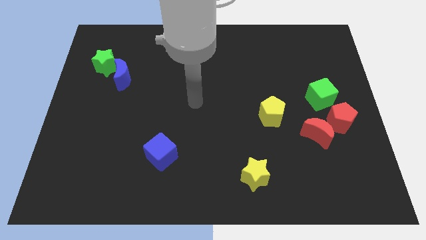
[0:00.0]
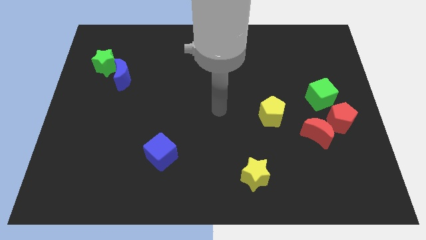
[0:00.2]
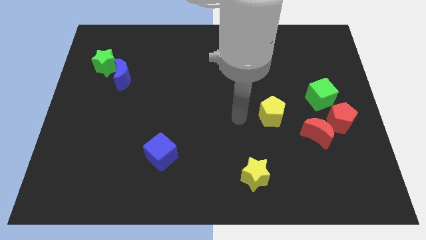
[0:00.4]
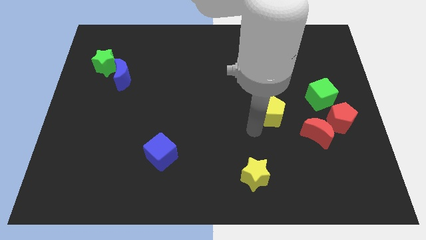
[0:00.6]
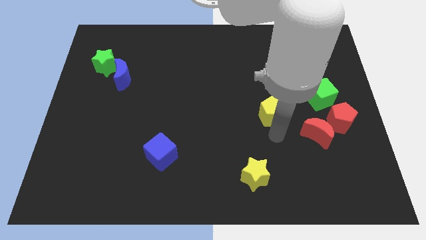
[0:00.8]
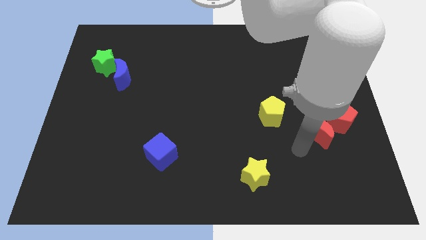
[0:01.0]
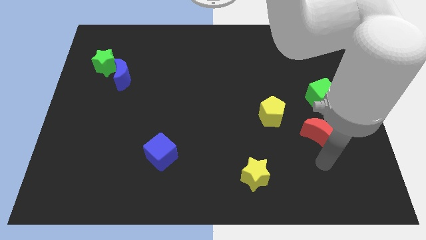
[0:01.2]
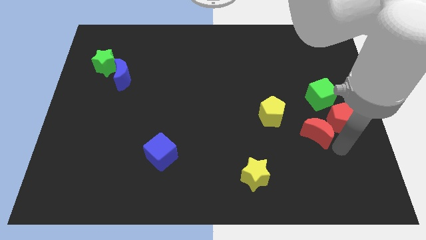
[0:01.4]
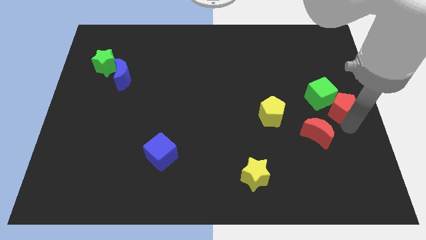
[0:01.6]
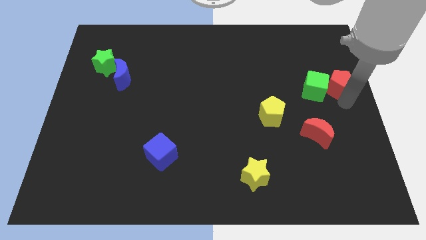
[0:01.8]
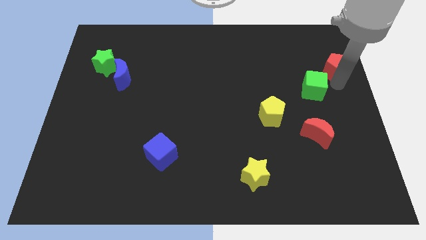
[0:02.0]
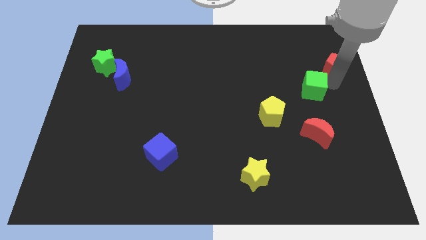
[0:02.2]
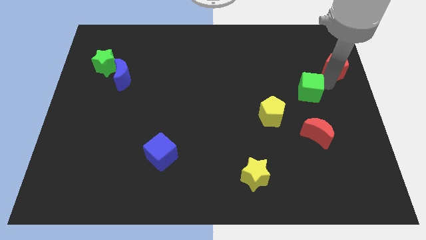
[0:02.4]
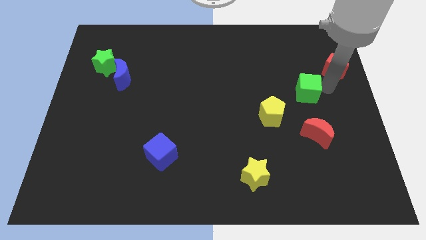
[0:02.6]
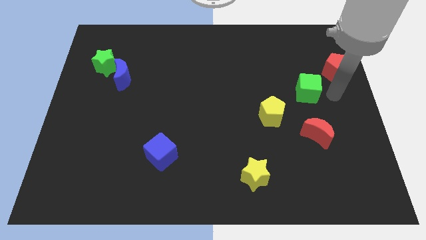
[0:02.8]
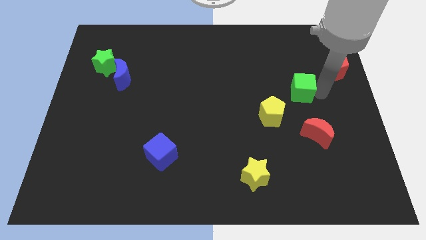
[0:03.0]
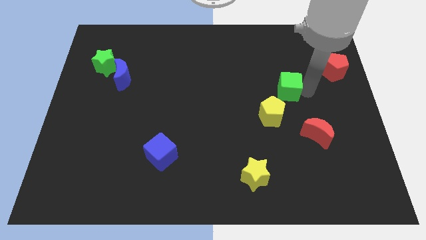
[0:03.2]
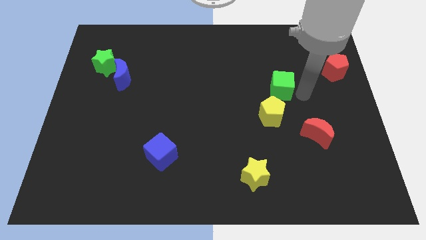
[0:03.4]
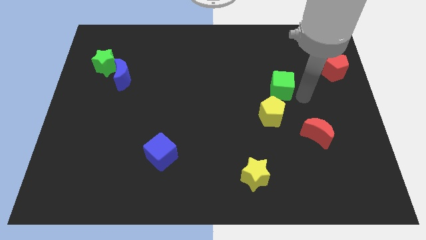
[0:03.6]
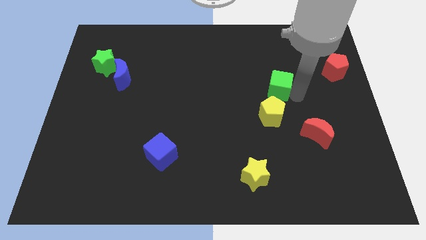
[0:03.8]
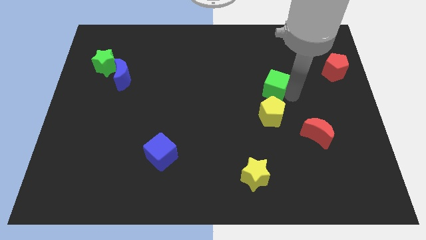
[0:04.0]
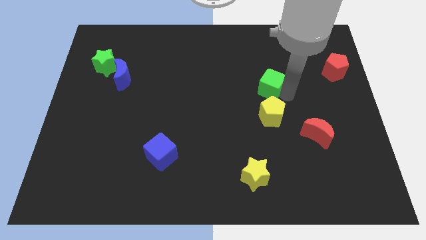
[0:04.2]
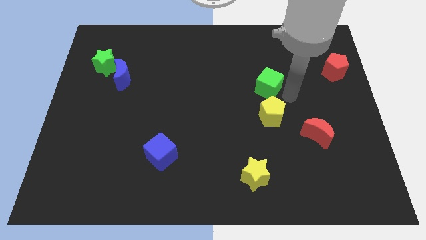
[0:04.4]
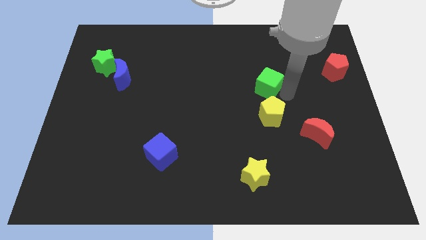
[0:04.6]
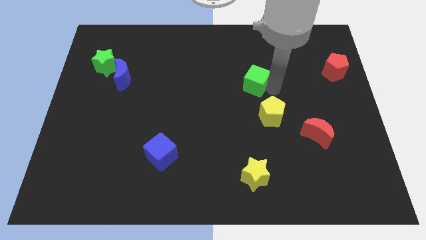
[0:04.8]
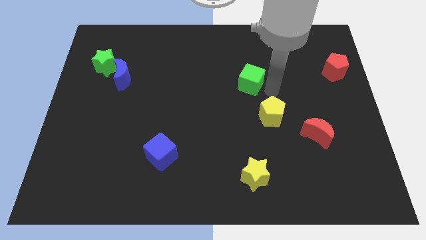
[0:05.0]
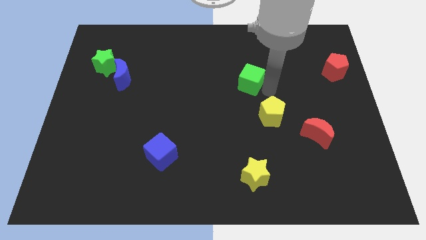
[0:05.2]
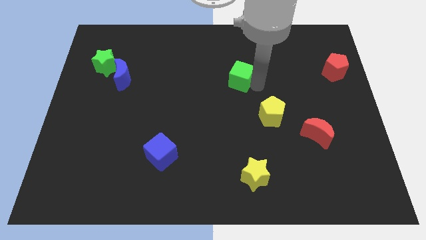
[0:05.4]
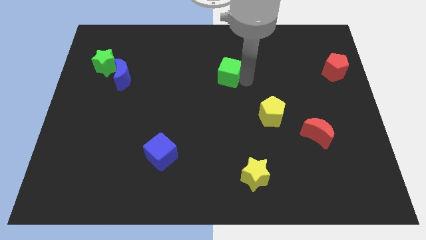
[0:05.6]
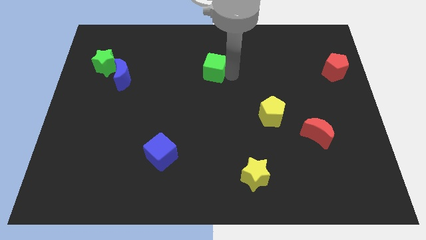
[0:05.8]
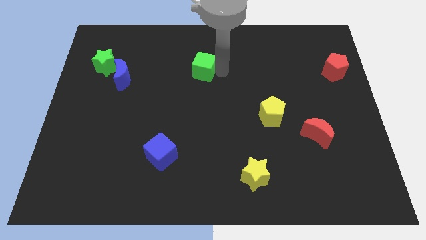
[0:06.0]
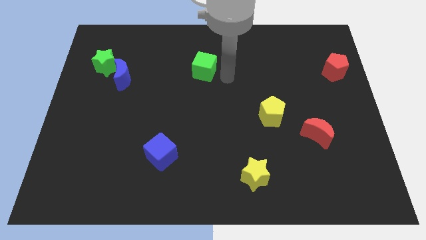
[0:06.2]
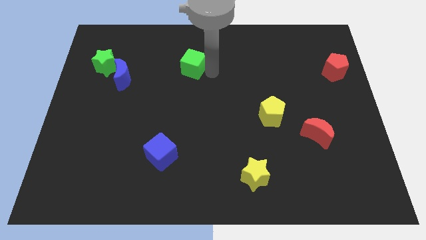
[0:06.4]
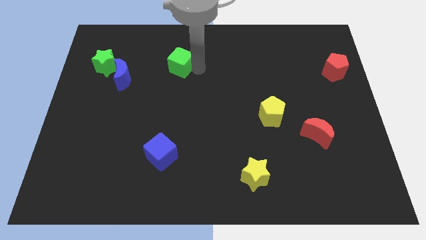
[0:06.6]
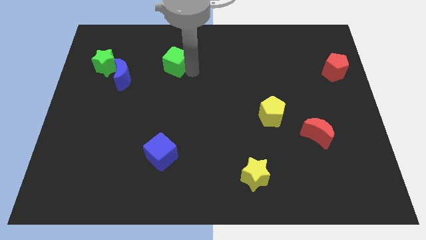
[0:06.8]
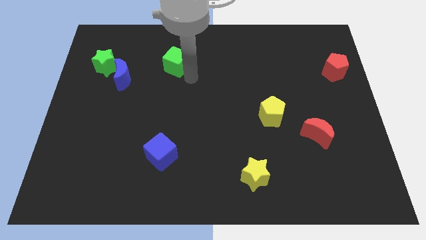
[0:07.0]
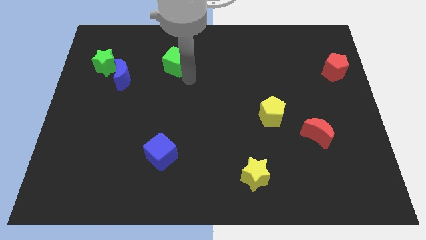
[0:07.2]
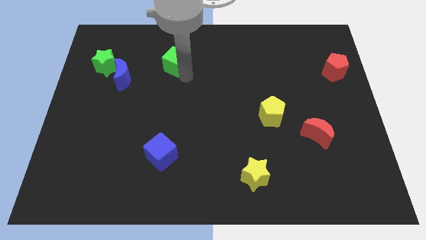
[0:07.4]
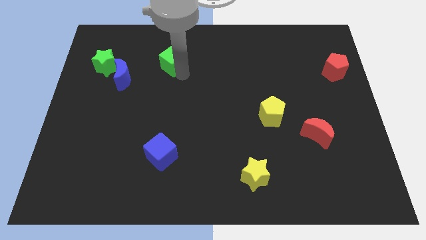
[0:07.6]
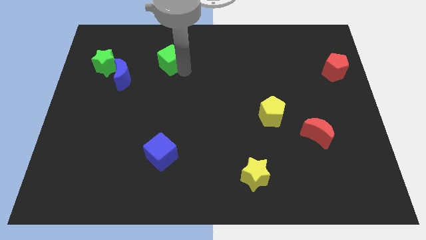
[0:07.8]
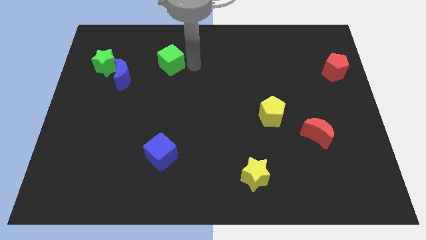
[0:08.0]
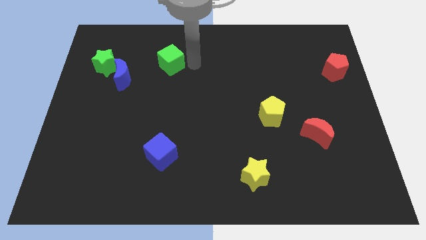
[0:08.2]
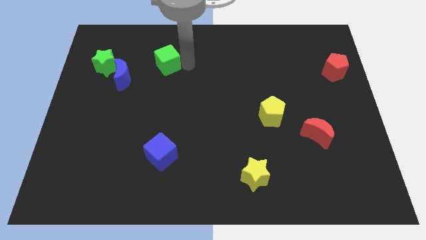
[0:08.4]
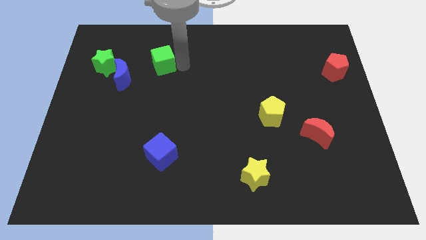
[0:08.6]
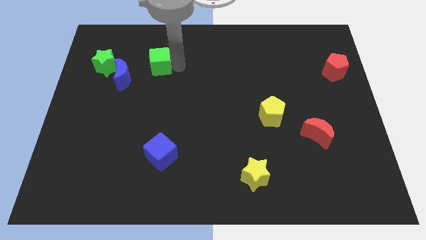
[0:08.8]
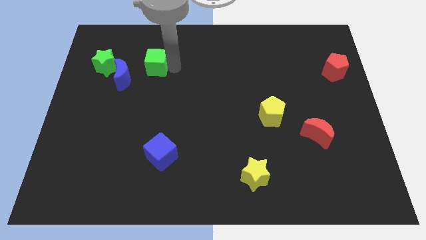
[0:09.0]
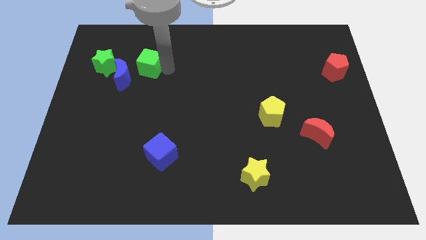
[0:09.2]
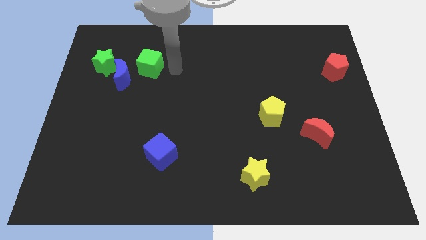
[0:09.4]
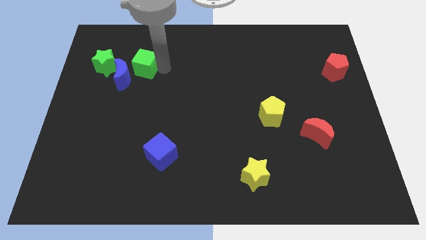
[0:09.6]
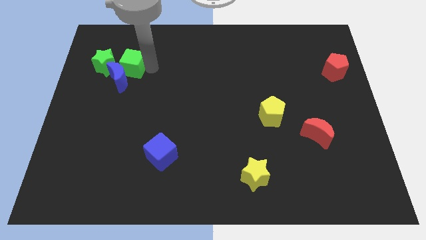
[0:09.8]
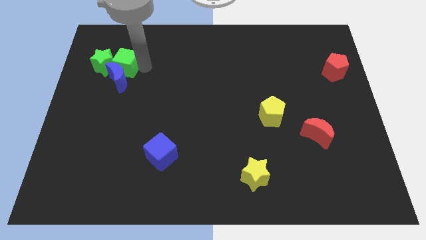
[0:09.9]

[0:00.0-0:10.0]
push the green cube to the green star

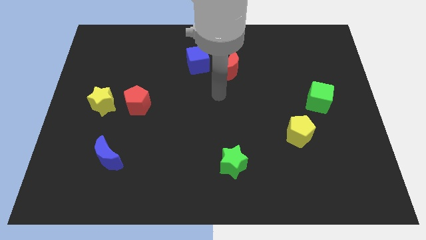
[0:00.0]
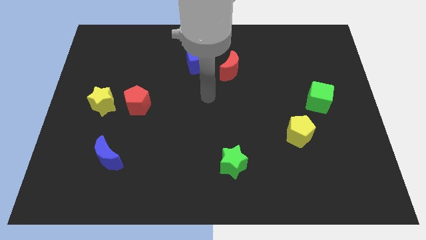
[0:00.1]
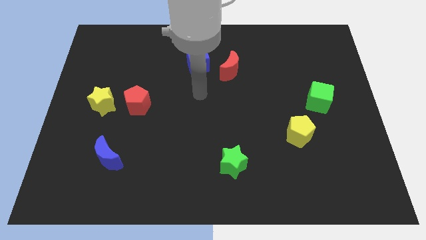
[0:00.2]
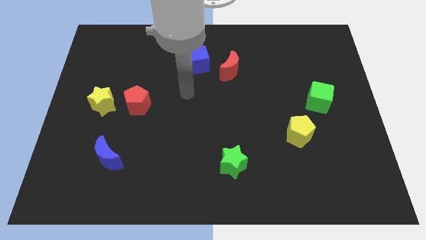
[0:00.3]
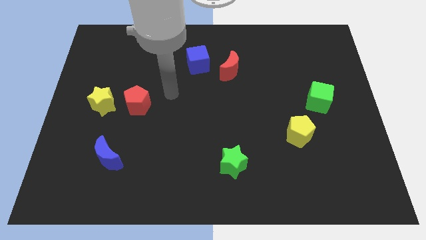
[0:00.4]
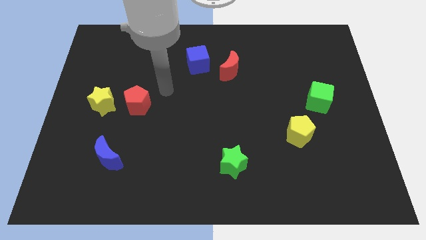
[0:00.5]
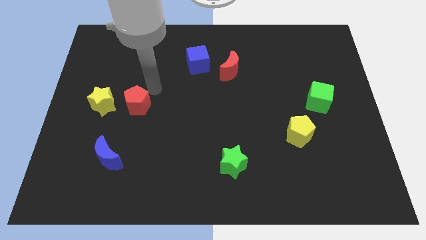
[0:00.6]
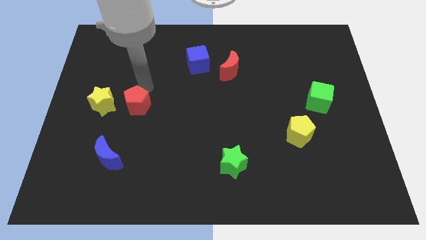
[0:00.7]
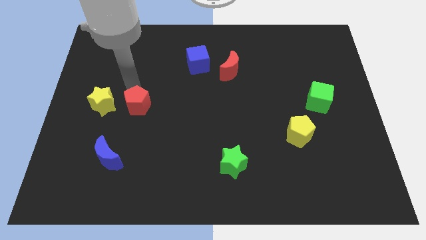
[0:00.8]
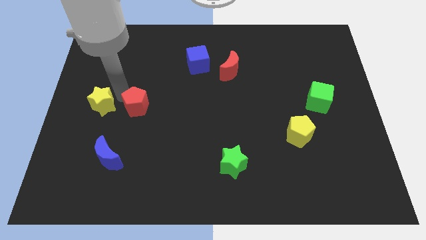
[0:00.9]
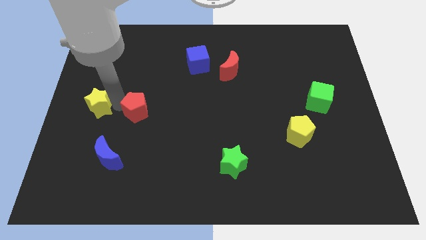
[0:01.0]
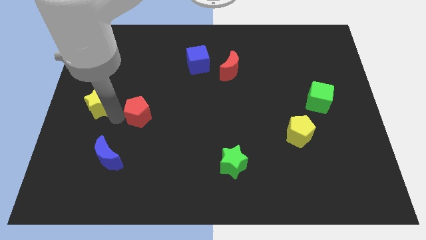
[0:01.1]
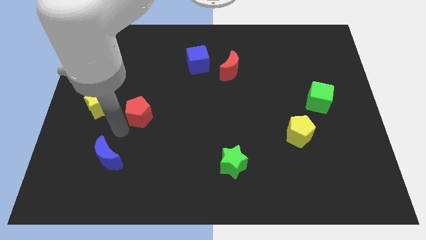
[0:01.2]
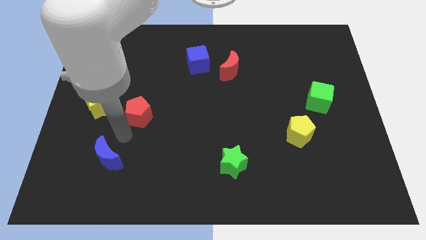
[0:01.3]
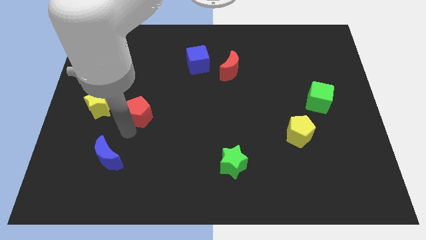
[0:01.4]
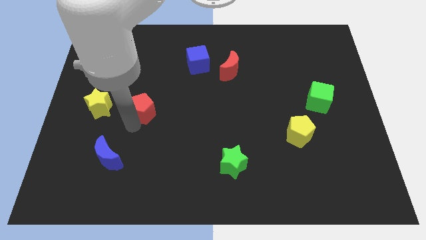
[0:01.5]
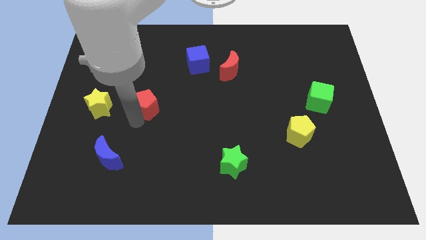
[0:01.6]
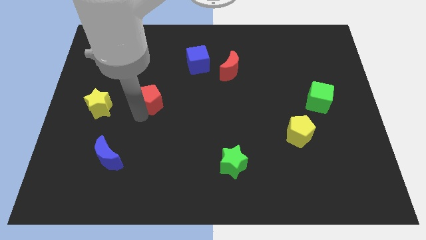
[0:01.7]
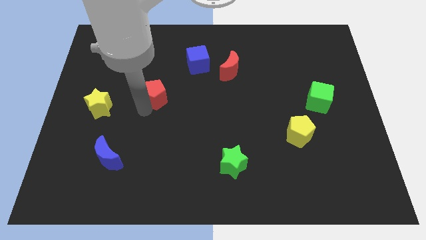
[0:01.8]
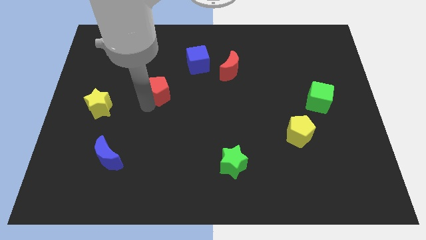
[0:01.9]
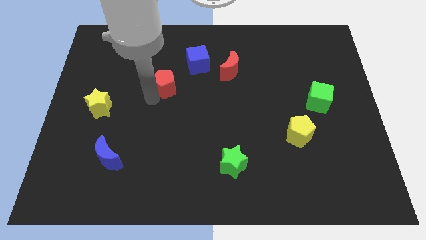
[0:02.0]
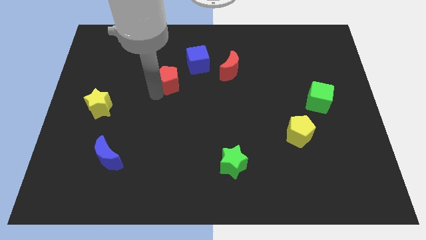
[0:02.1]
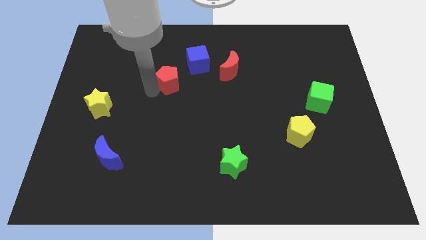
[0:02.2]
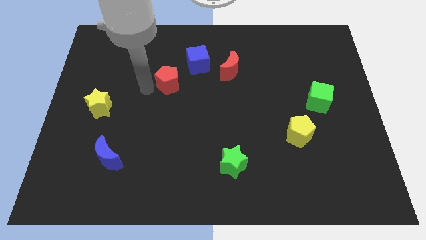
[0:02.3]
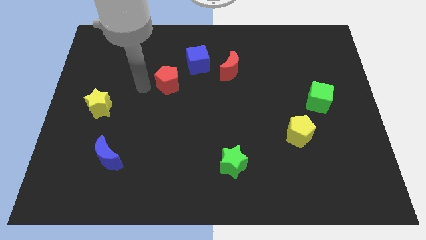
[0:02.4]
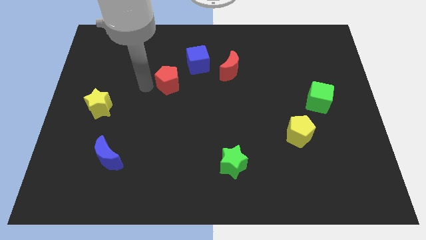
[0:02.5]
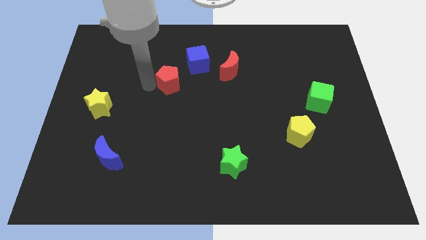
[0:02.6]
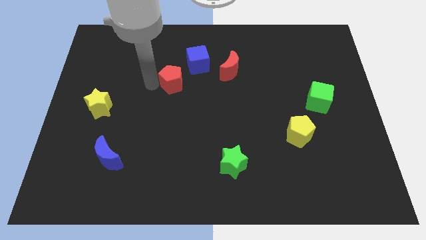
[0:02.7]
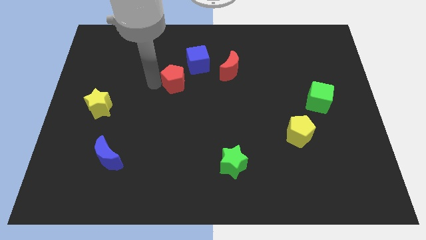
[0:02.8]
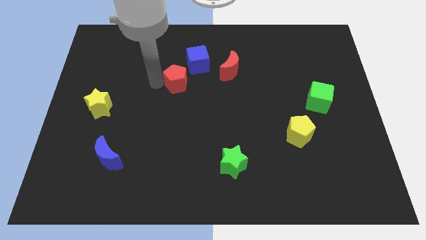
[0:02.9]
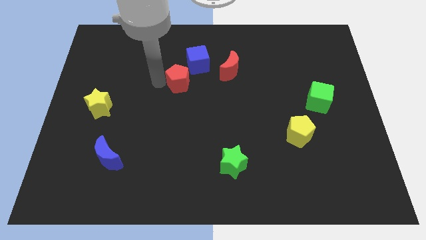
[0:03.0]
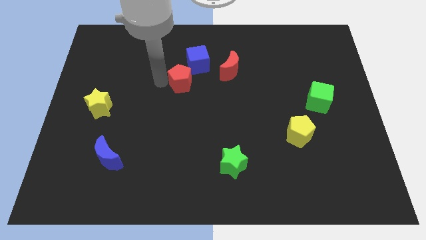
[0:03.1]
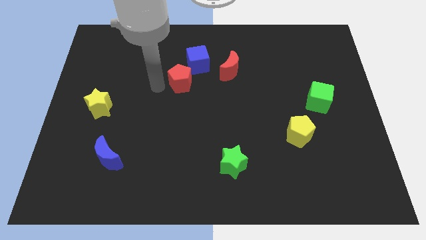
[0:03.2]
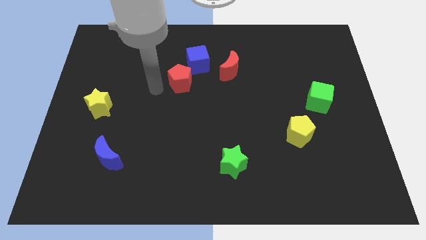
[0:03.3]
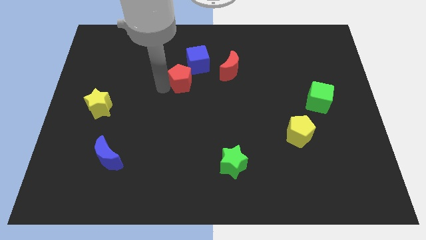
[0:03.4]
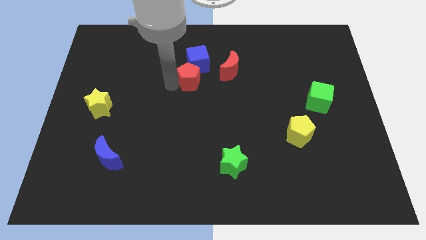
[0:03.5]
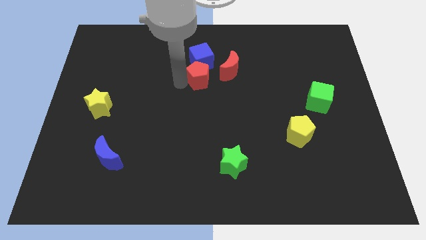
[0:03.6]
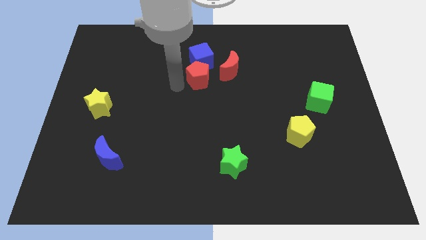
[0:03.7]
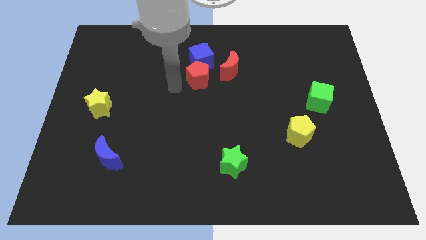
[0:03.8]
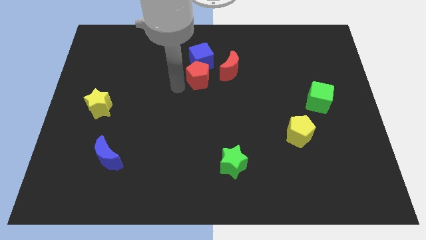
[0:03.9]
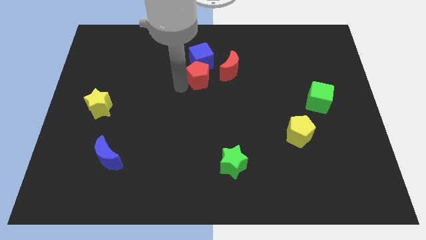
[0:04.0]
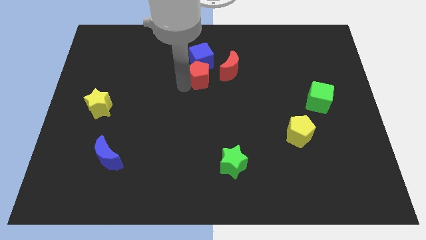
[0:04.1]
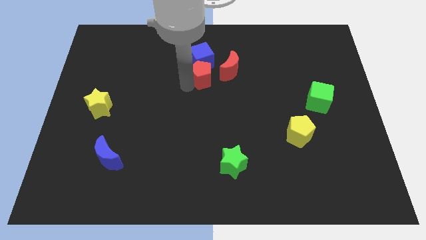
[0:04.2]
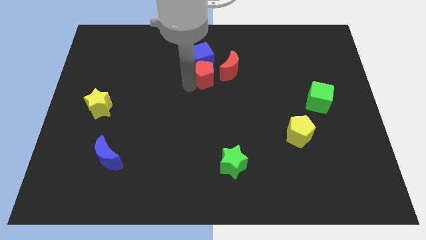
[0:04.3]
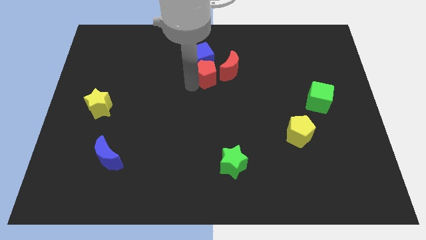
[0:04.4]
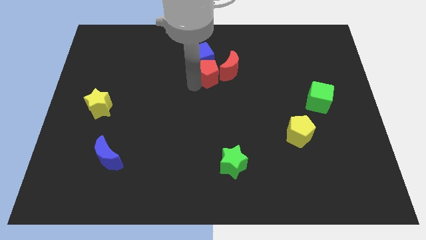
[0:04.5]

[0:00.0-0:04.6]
slide the red pentagon close to the red moon
